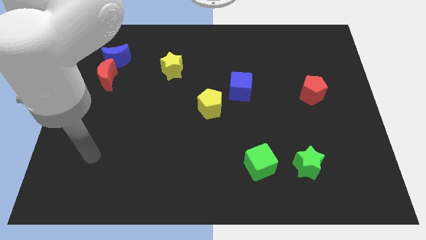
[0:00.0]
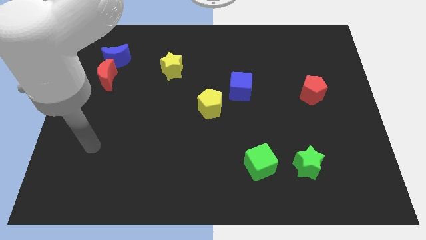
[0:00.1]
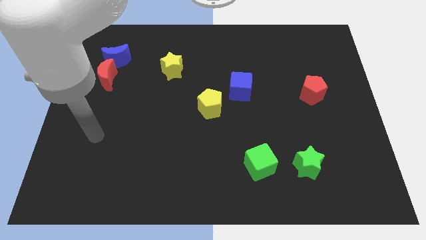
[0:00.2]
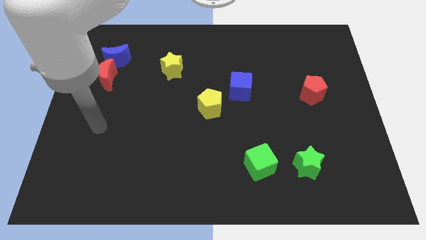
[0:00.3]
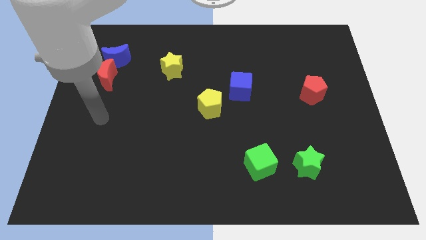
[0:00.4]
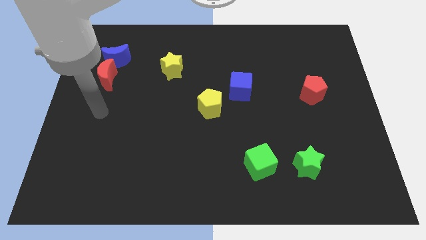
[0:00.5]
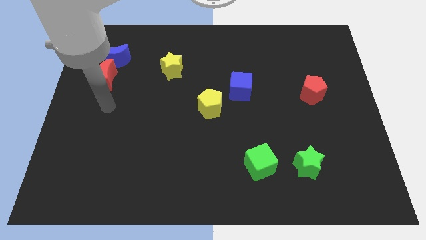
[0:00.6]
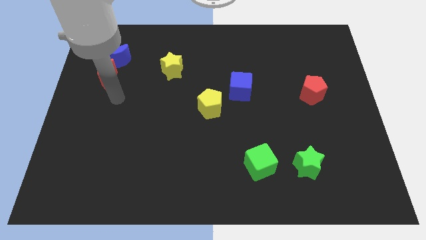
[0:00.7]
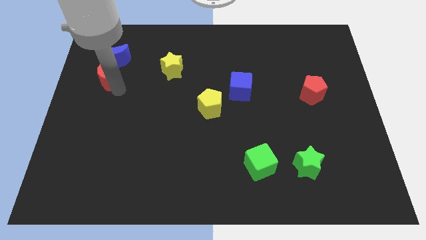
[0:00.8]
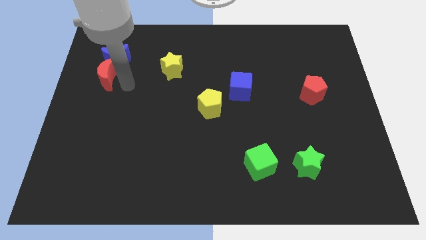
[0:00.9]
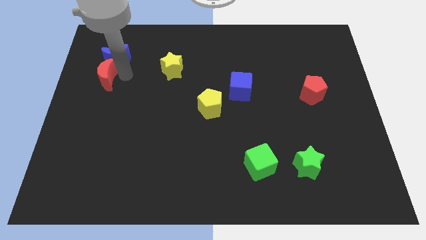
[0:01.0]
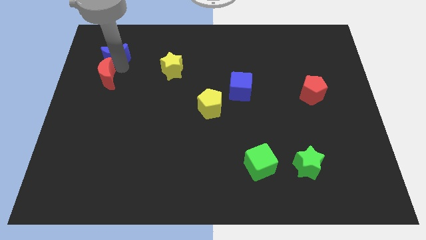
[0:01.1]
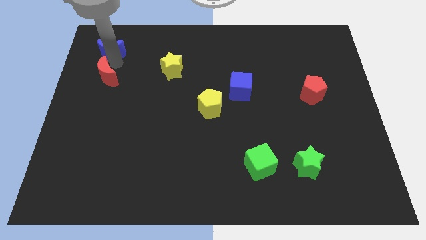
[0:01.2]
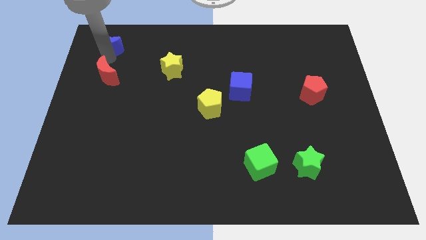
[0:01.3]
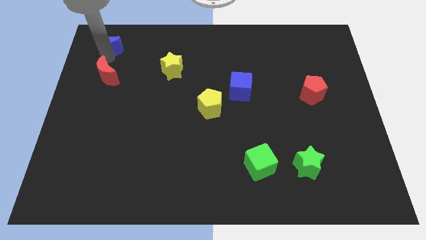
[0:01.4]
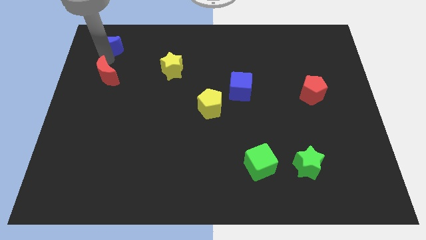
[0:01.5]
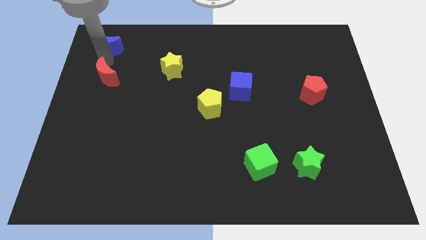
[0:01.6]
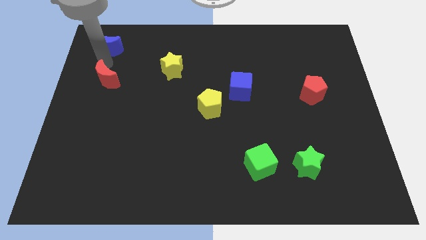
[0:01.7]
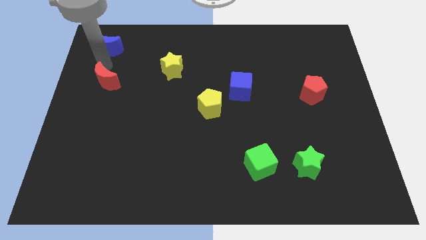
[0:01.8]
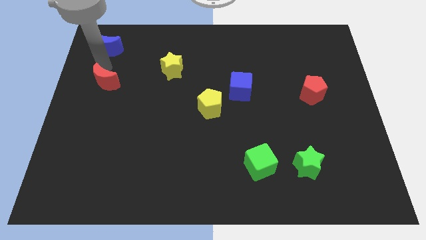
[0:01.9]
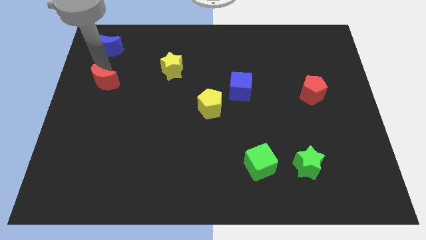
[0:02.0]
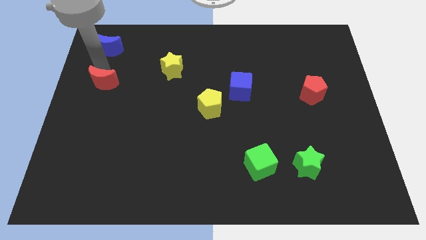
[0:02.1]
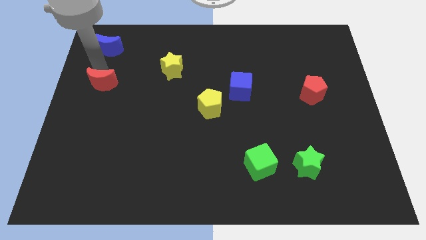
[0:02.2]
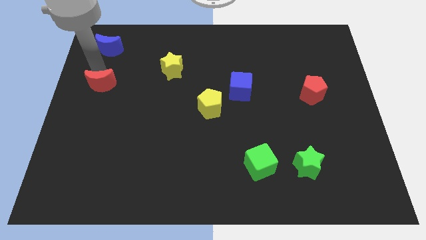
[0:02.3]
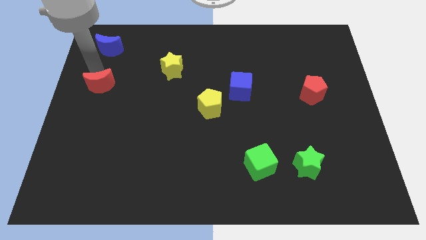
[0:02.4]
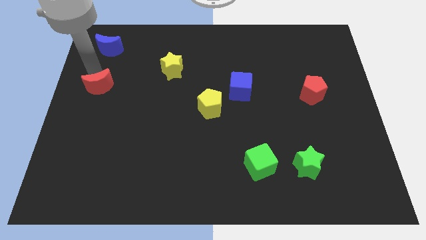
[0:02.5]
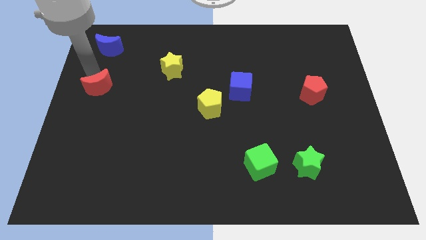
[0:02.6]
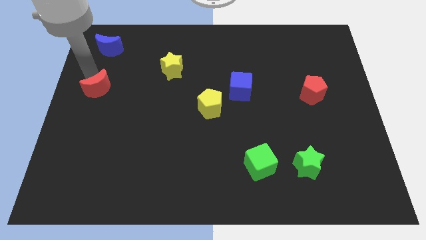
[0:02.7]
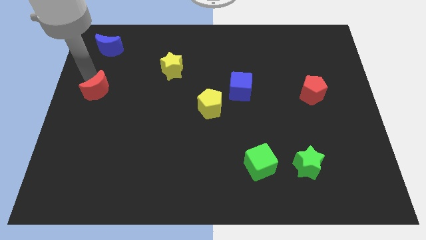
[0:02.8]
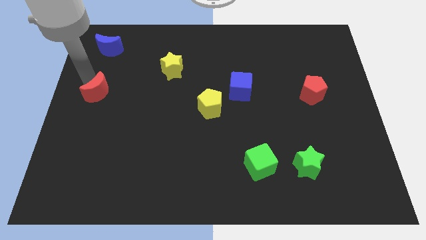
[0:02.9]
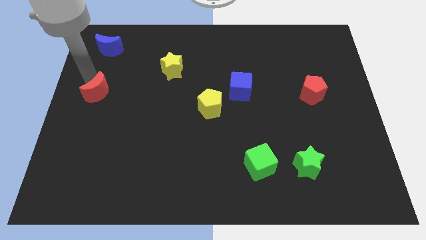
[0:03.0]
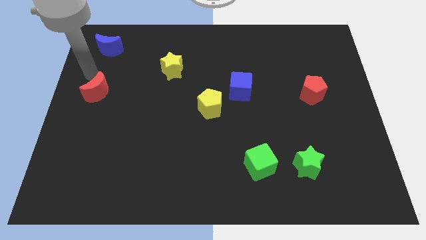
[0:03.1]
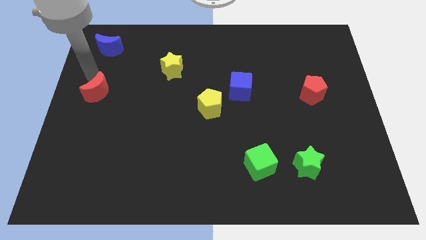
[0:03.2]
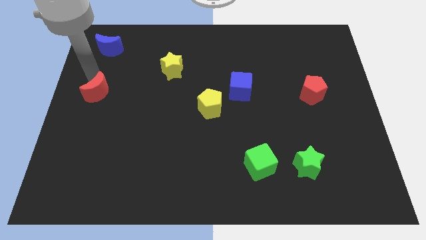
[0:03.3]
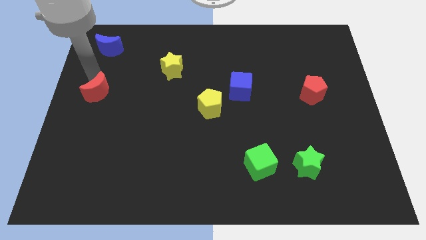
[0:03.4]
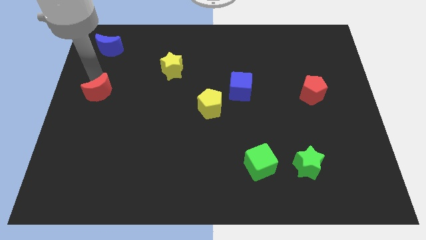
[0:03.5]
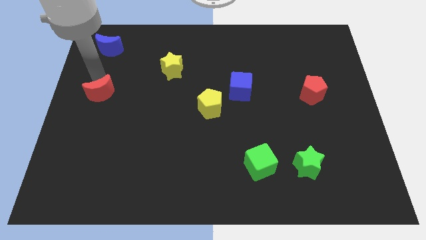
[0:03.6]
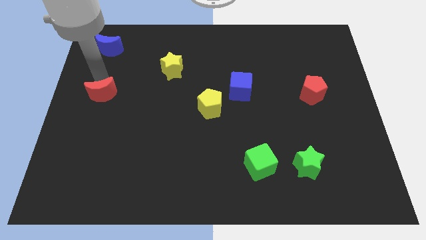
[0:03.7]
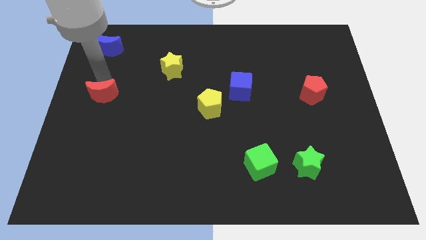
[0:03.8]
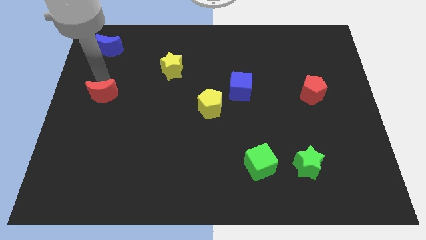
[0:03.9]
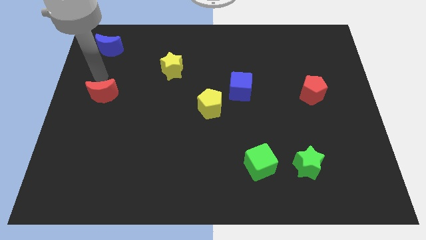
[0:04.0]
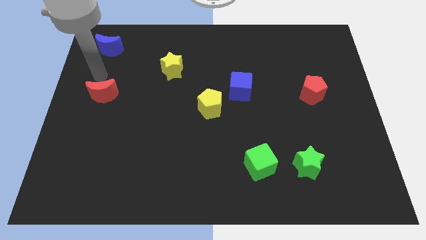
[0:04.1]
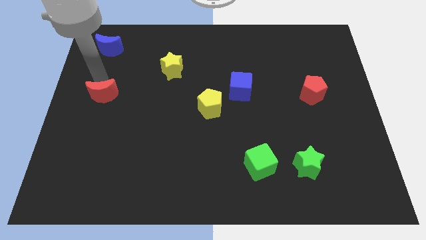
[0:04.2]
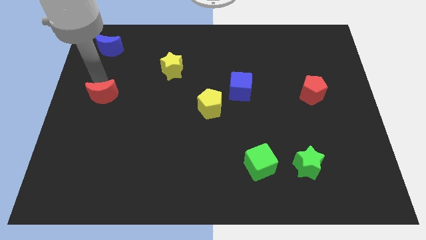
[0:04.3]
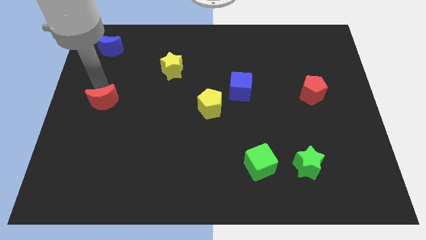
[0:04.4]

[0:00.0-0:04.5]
slightly slide the red moon down

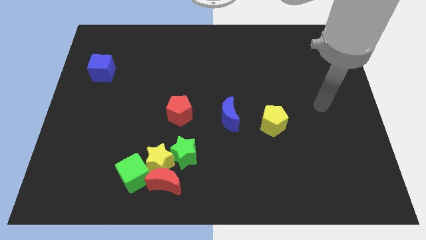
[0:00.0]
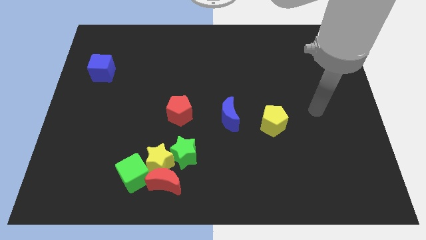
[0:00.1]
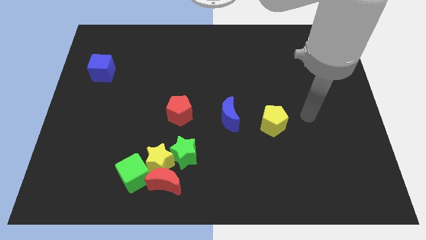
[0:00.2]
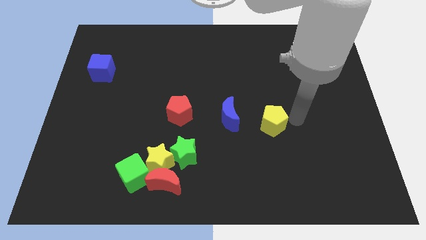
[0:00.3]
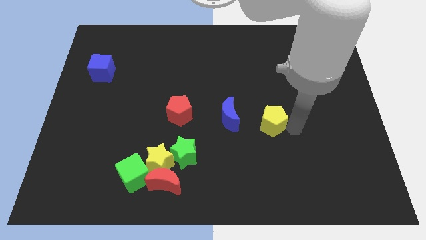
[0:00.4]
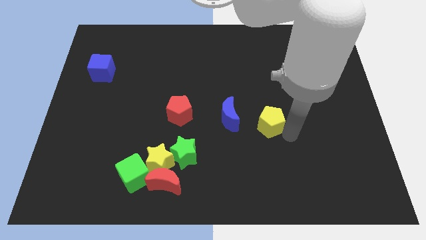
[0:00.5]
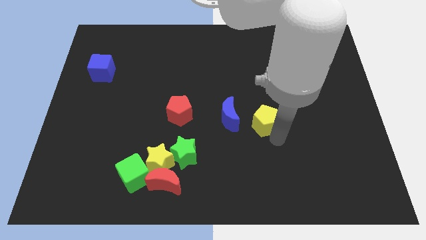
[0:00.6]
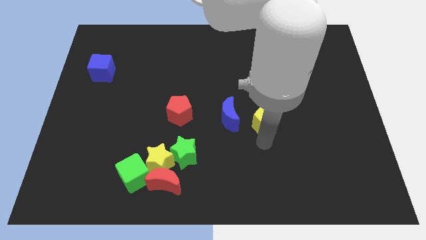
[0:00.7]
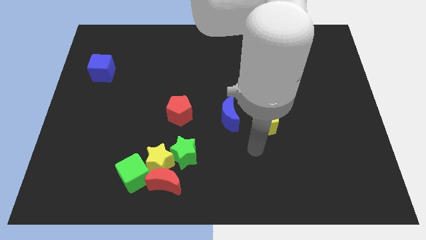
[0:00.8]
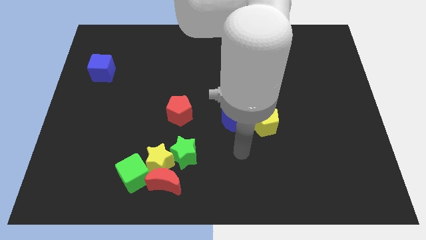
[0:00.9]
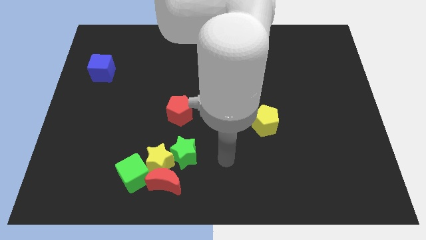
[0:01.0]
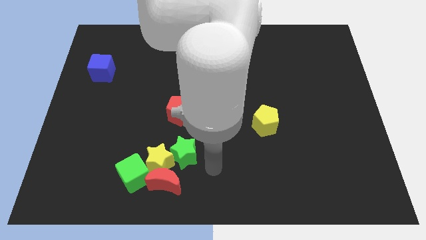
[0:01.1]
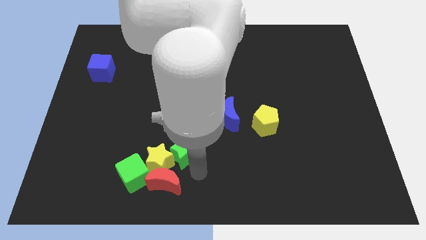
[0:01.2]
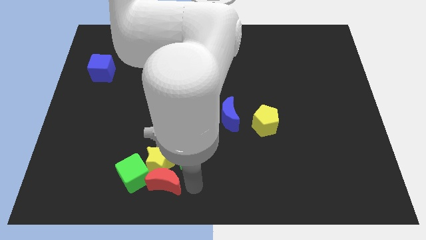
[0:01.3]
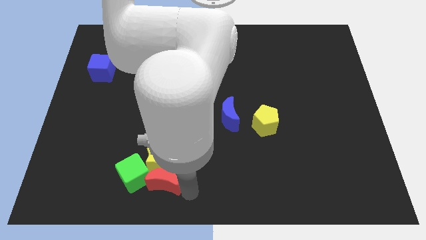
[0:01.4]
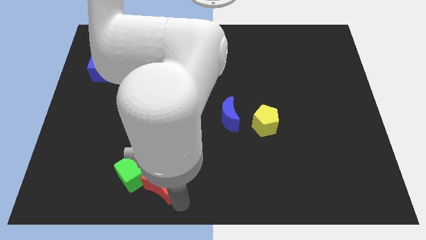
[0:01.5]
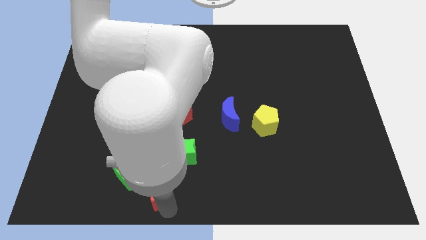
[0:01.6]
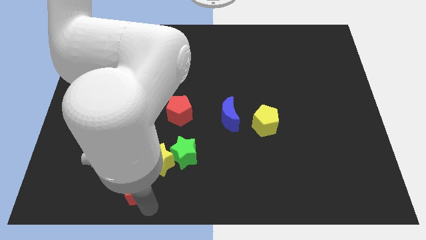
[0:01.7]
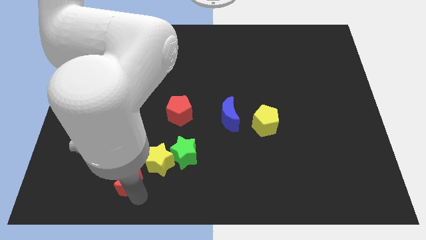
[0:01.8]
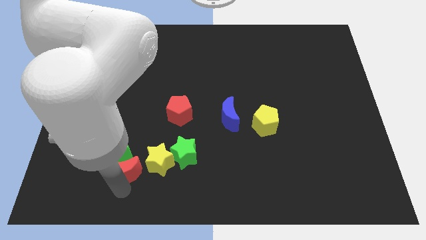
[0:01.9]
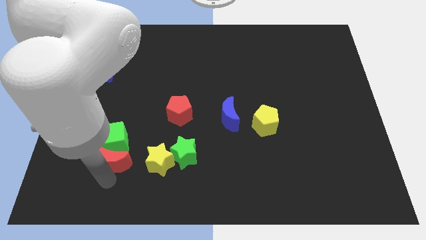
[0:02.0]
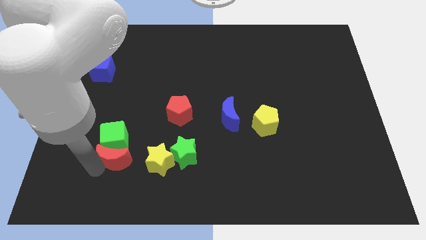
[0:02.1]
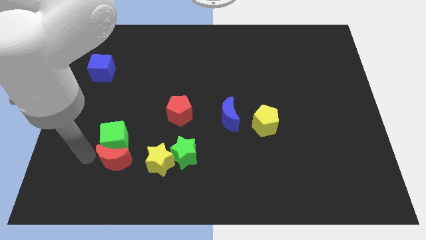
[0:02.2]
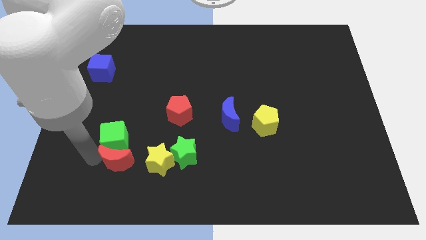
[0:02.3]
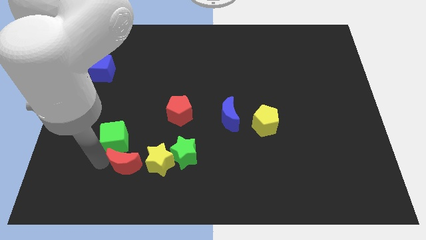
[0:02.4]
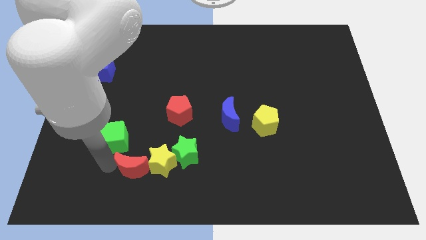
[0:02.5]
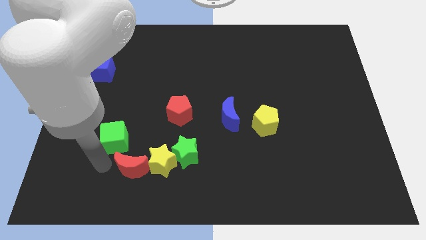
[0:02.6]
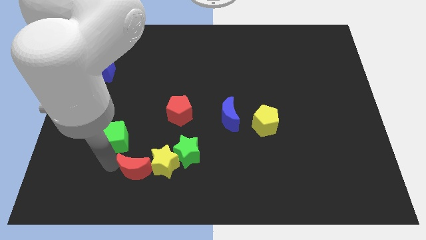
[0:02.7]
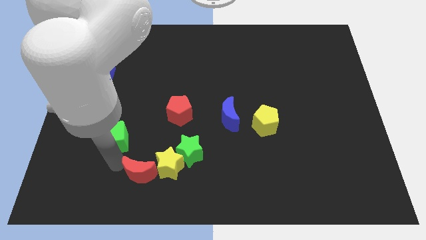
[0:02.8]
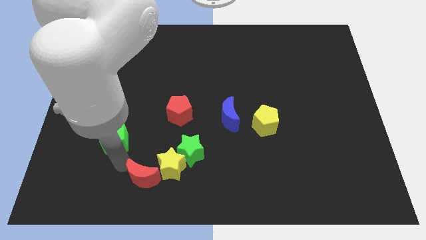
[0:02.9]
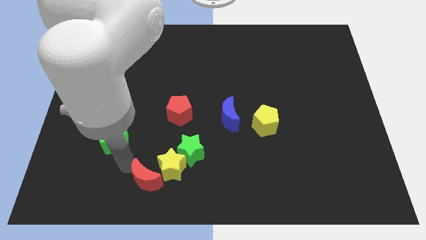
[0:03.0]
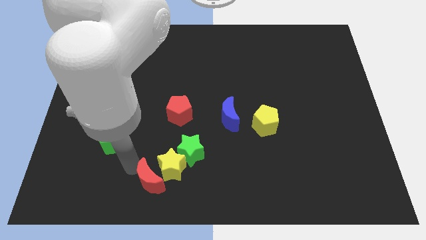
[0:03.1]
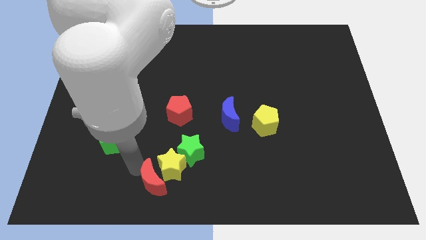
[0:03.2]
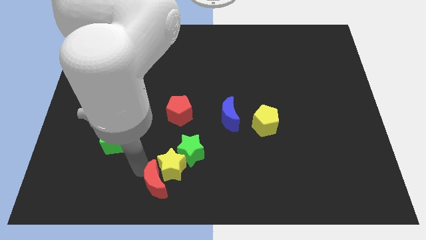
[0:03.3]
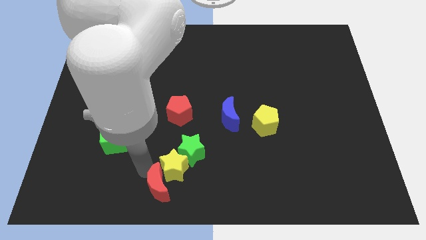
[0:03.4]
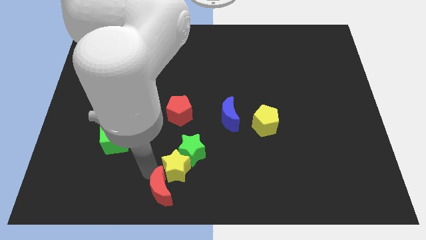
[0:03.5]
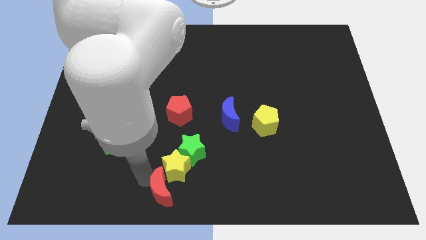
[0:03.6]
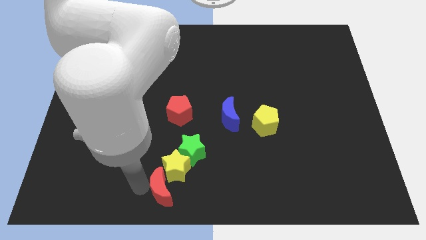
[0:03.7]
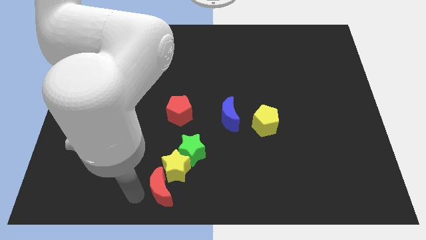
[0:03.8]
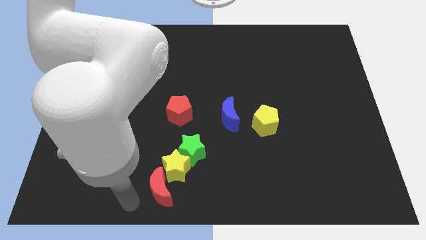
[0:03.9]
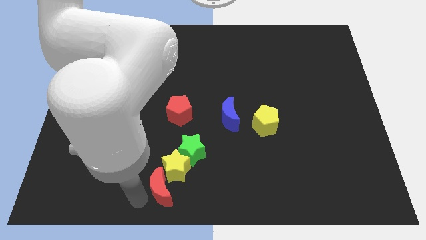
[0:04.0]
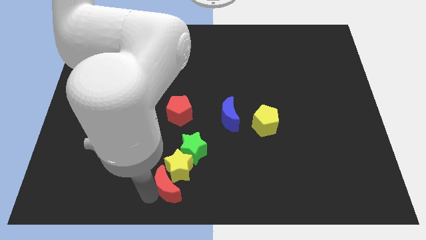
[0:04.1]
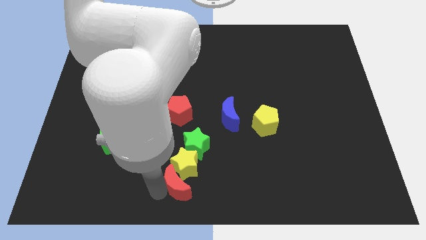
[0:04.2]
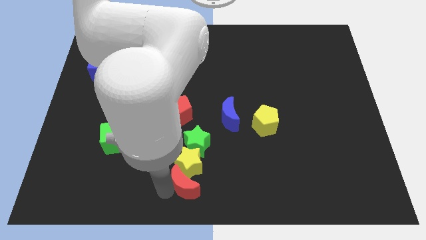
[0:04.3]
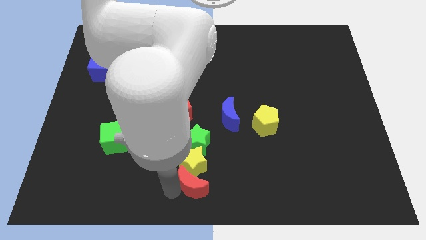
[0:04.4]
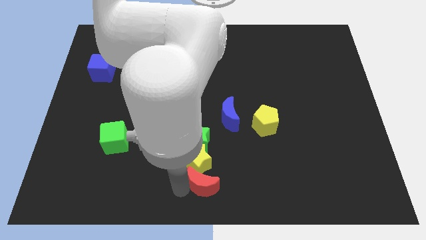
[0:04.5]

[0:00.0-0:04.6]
push the red moon a little bit to the right
